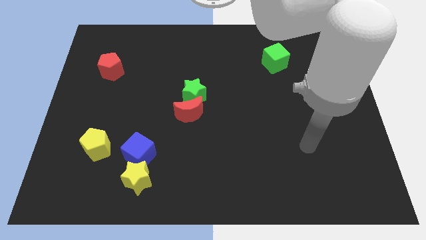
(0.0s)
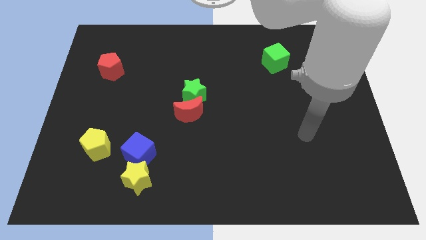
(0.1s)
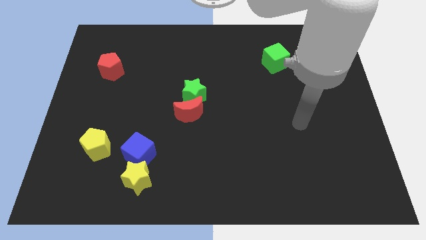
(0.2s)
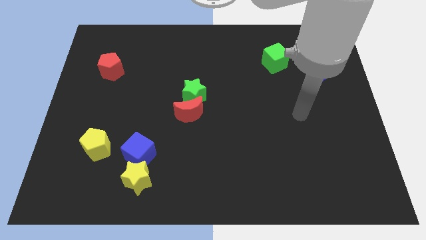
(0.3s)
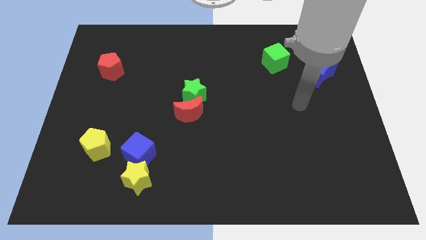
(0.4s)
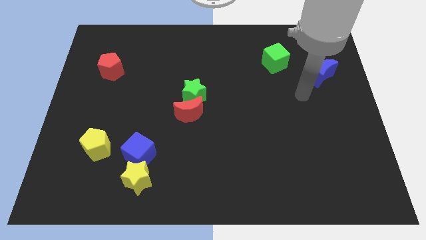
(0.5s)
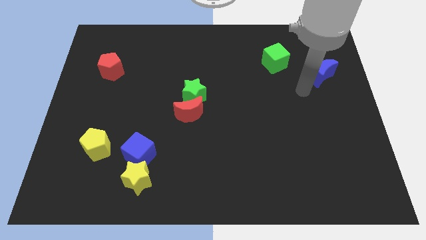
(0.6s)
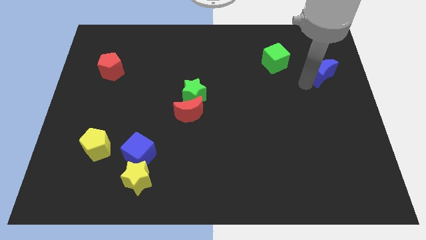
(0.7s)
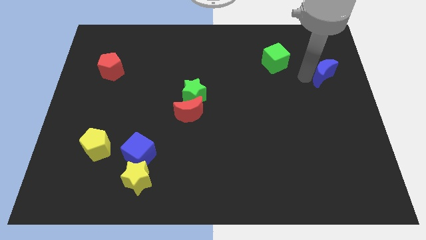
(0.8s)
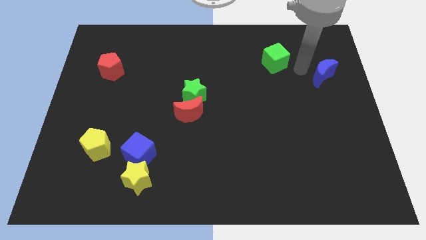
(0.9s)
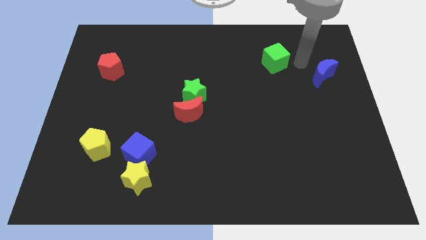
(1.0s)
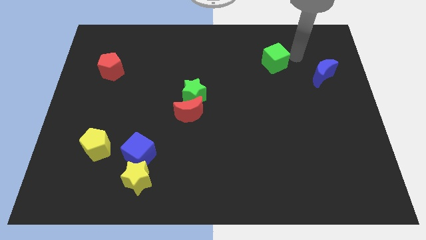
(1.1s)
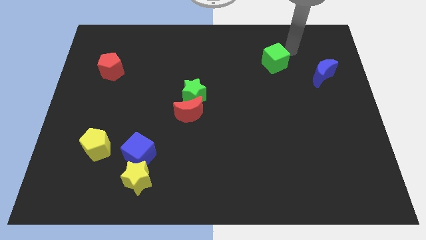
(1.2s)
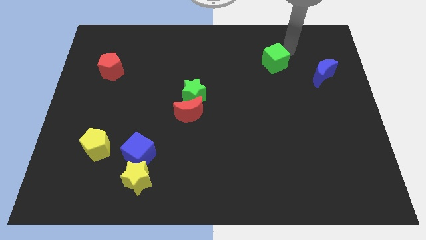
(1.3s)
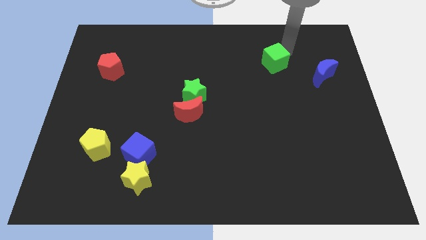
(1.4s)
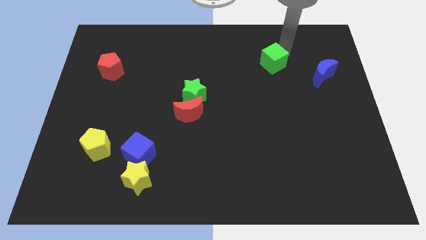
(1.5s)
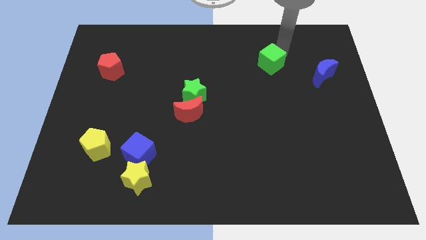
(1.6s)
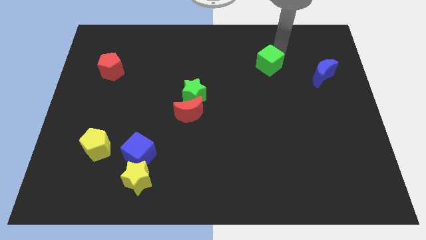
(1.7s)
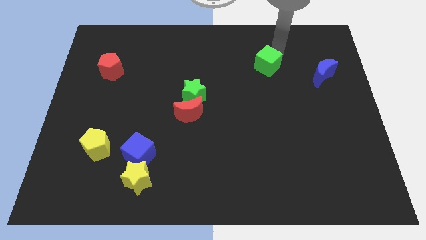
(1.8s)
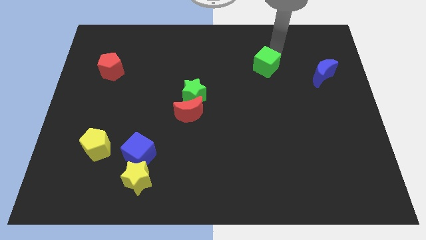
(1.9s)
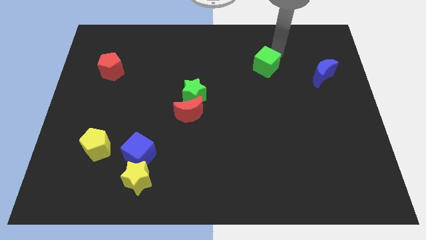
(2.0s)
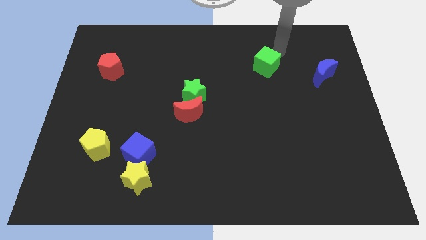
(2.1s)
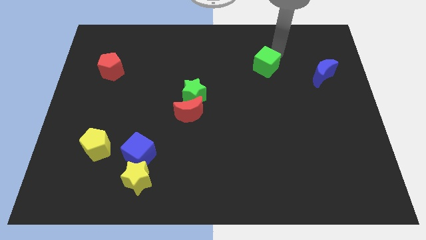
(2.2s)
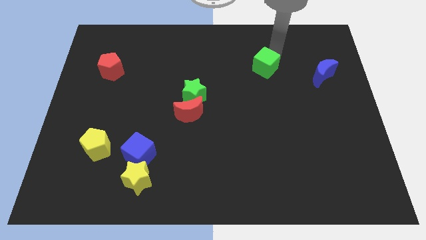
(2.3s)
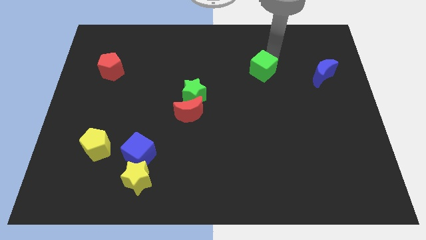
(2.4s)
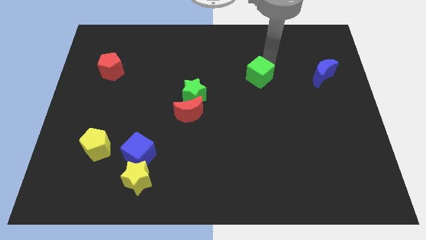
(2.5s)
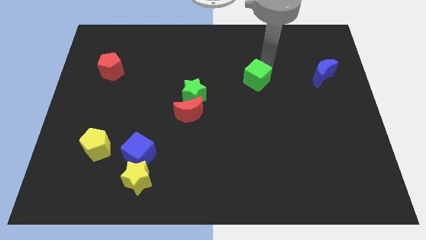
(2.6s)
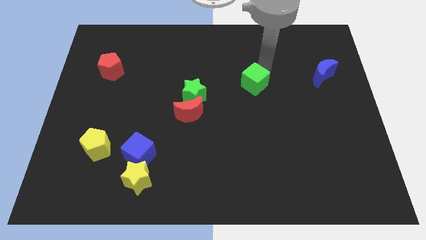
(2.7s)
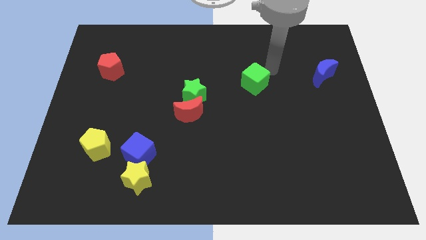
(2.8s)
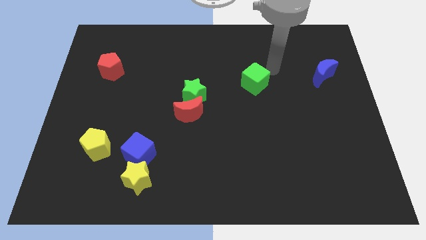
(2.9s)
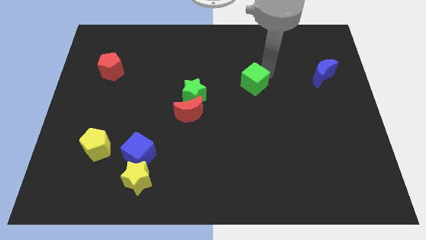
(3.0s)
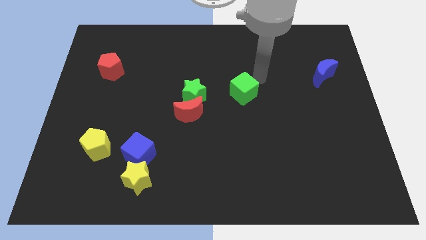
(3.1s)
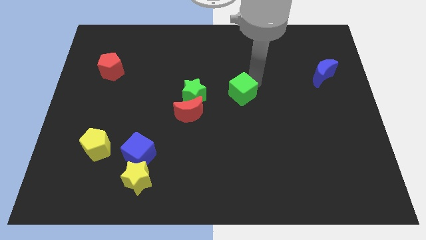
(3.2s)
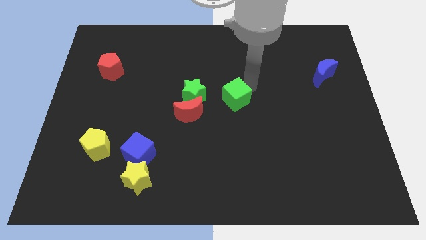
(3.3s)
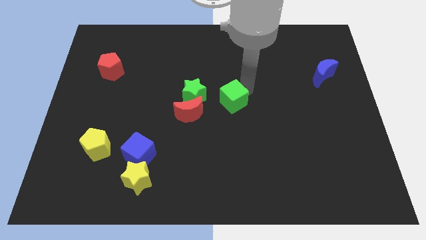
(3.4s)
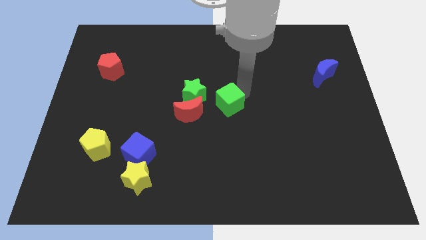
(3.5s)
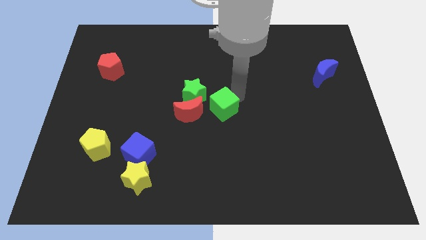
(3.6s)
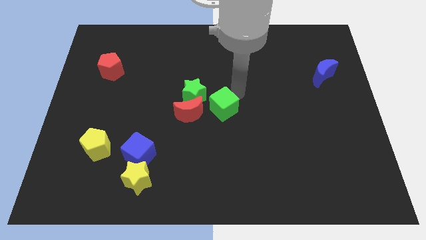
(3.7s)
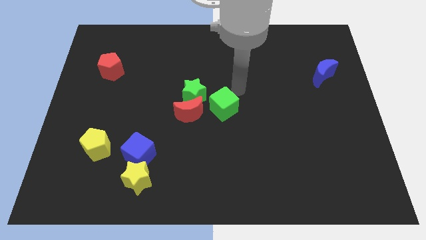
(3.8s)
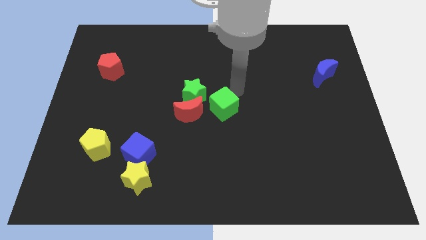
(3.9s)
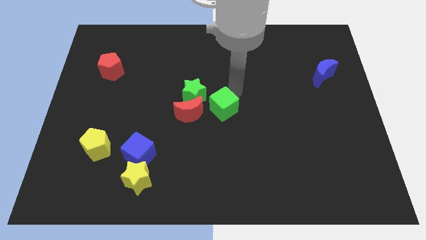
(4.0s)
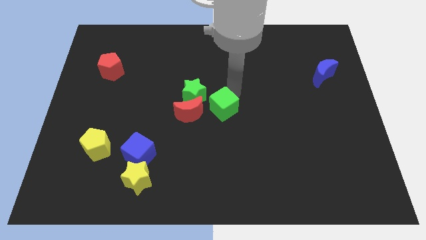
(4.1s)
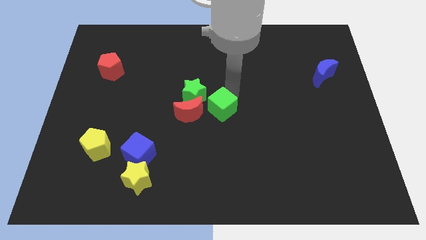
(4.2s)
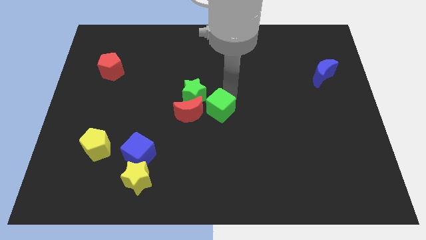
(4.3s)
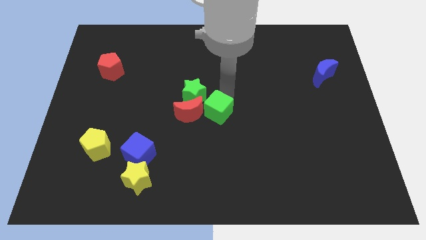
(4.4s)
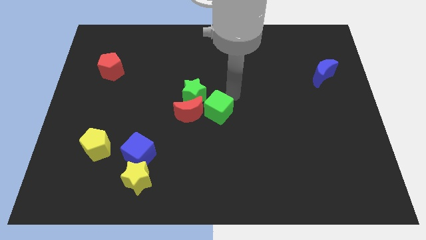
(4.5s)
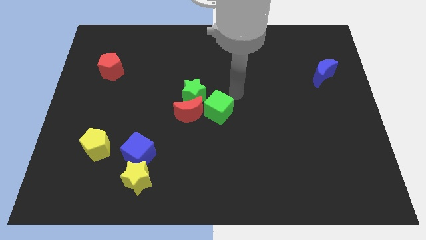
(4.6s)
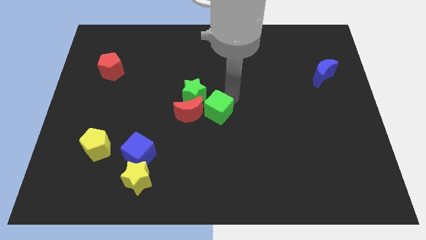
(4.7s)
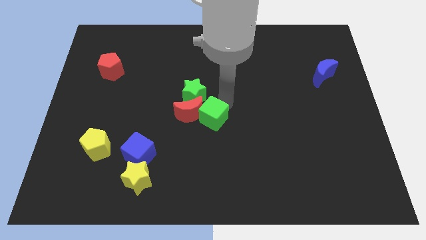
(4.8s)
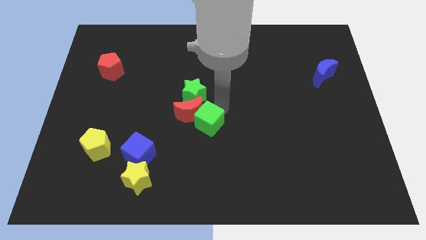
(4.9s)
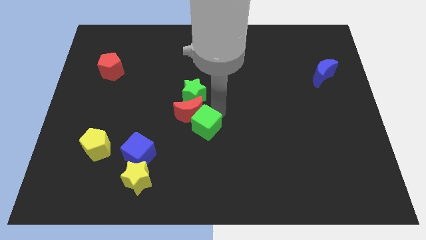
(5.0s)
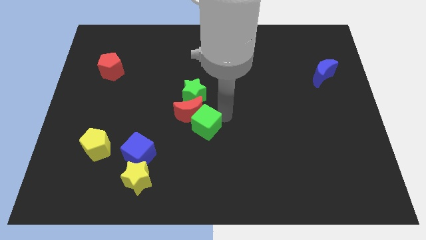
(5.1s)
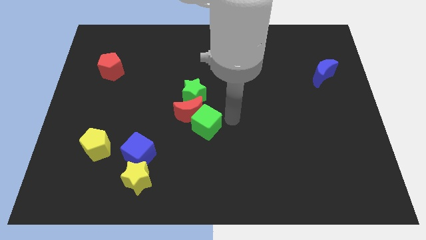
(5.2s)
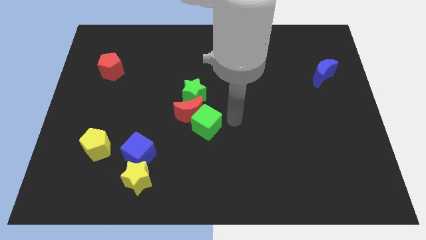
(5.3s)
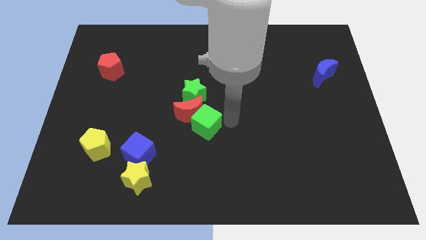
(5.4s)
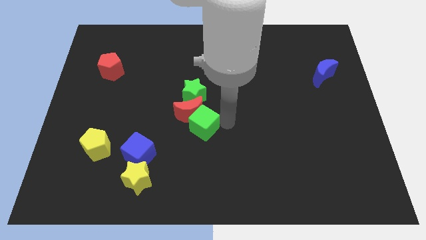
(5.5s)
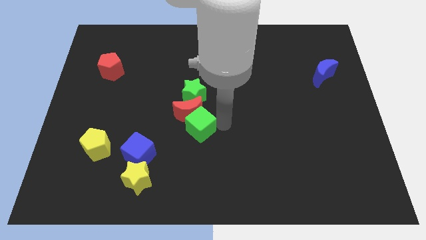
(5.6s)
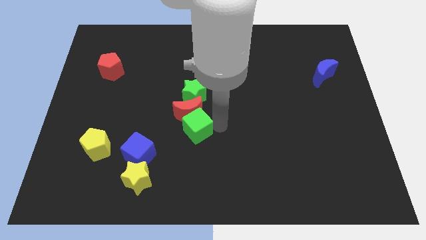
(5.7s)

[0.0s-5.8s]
push the green cube to the bottom left of the red moon
